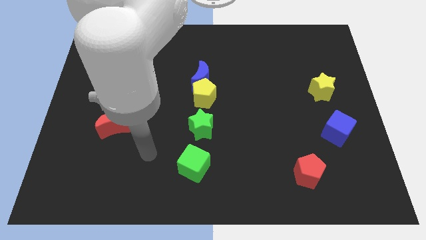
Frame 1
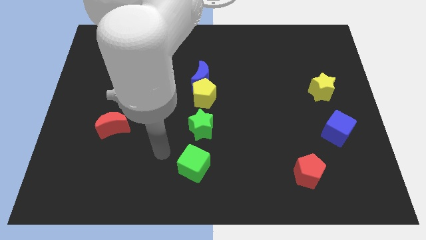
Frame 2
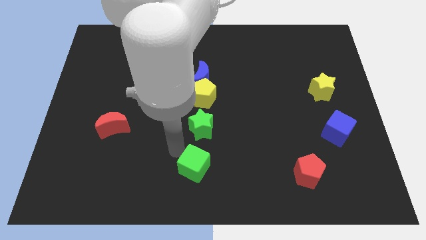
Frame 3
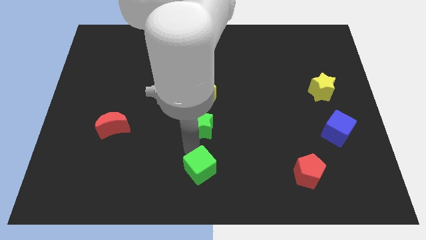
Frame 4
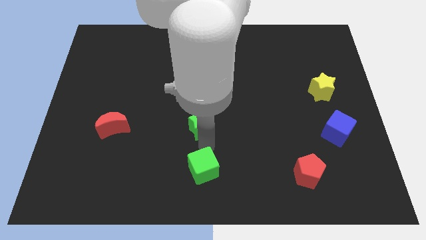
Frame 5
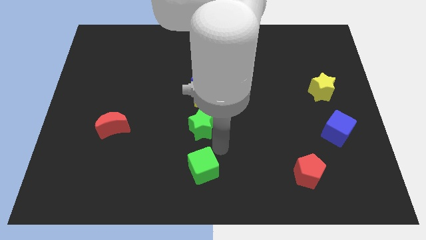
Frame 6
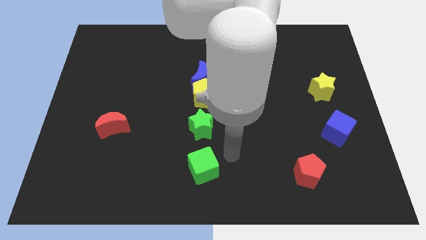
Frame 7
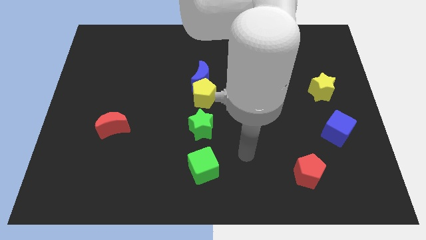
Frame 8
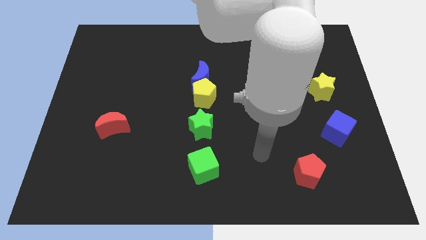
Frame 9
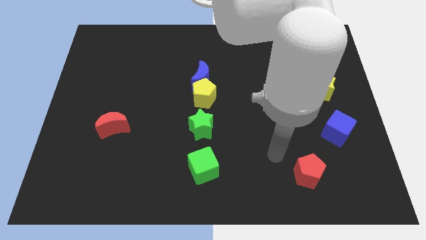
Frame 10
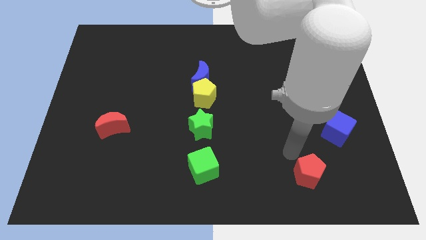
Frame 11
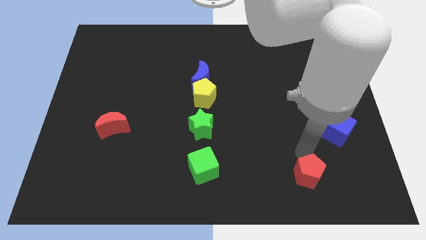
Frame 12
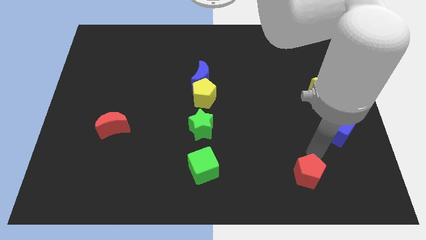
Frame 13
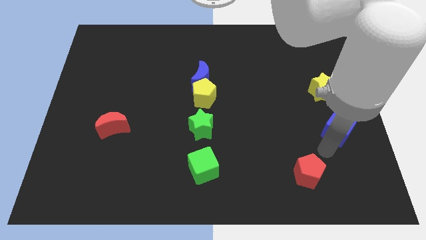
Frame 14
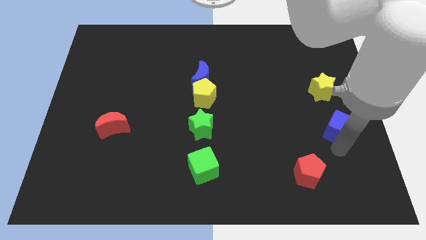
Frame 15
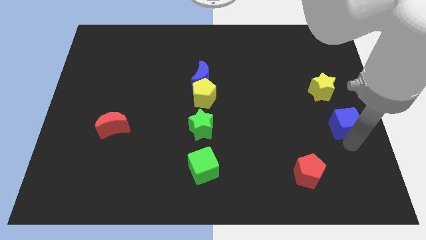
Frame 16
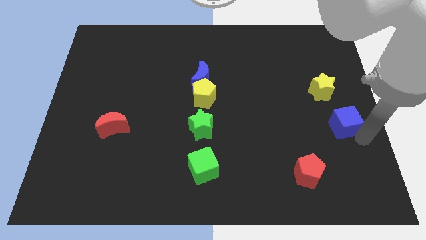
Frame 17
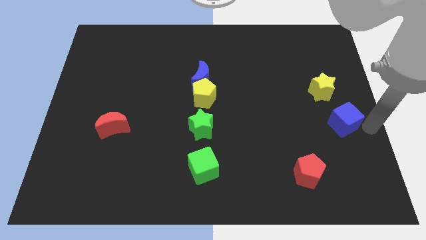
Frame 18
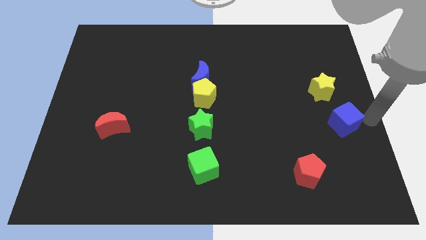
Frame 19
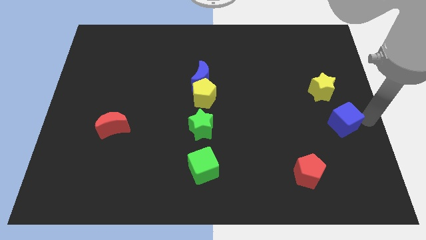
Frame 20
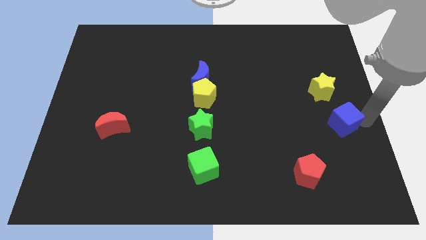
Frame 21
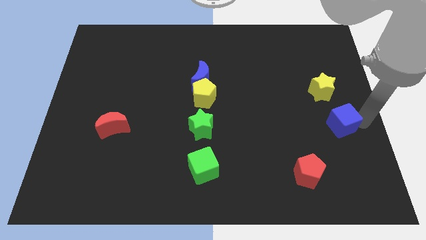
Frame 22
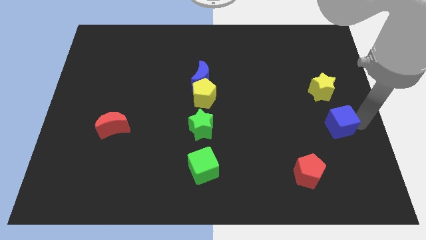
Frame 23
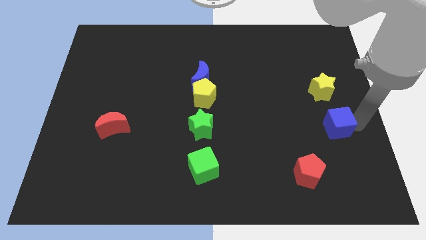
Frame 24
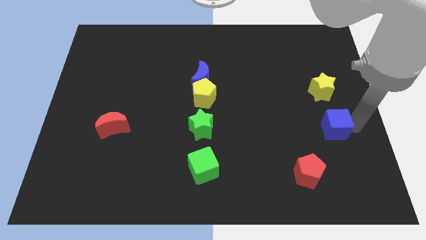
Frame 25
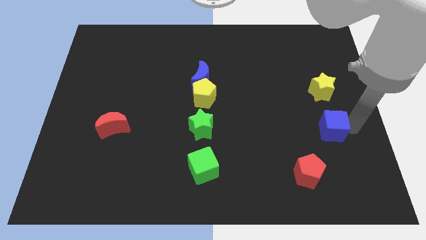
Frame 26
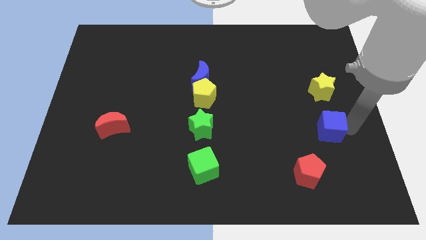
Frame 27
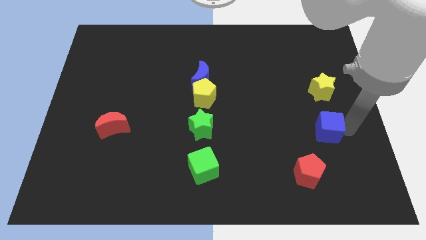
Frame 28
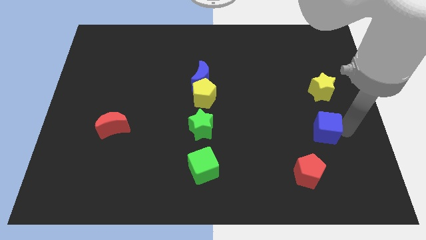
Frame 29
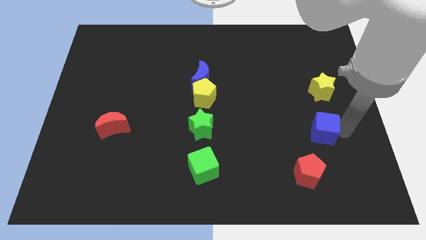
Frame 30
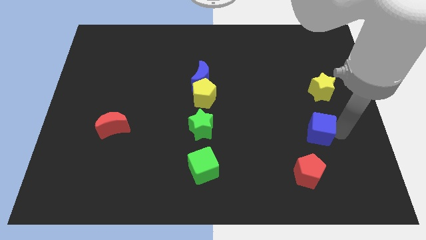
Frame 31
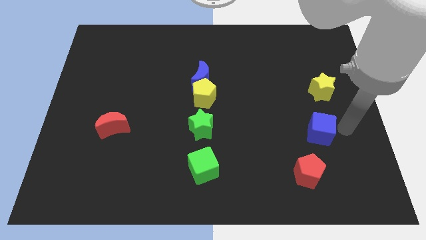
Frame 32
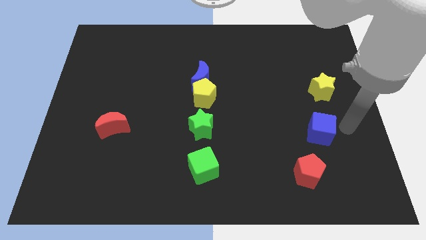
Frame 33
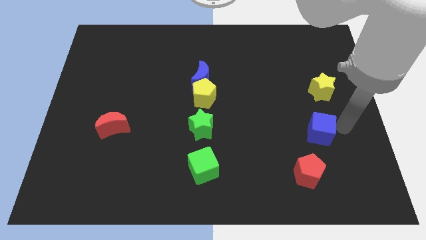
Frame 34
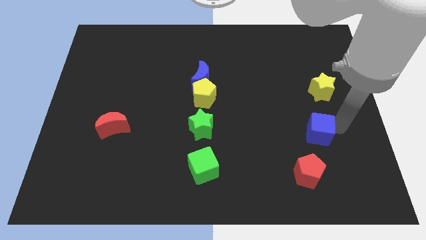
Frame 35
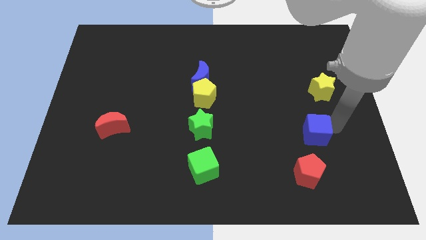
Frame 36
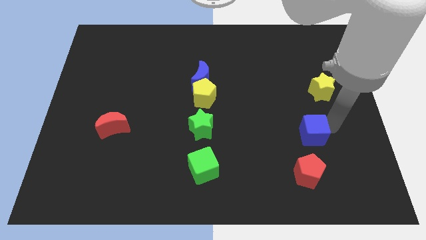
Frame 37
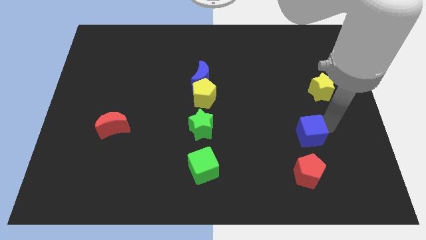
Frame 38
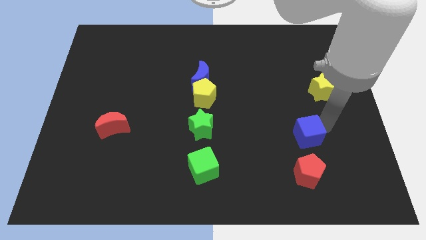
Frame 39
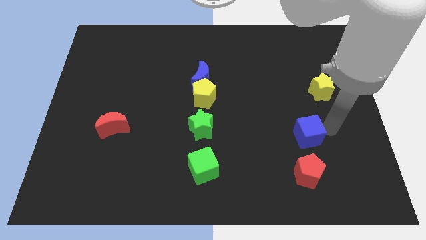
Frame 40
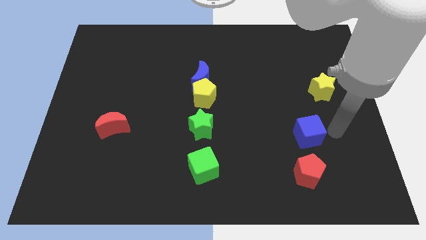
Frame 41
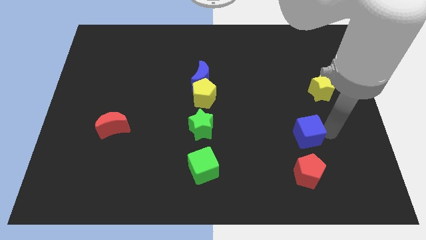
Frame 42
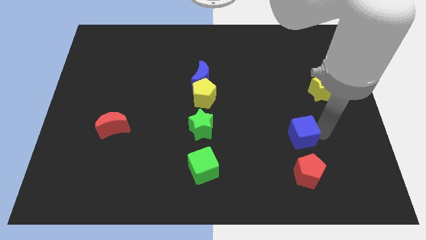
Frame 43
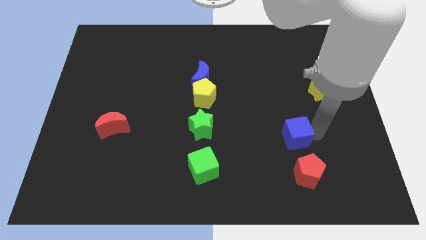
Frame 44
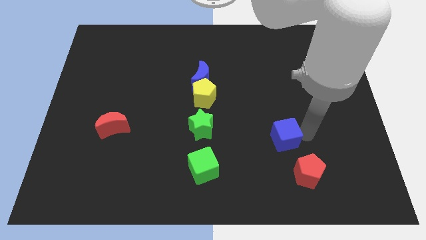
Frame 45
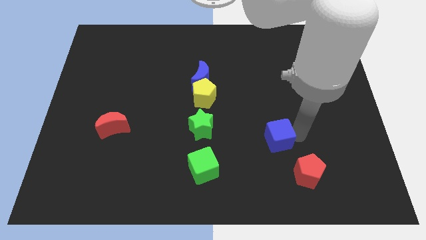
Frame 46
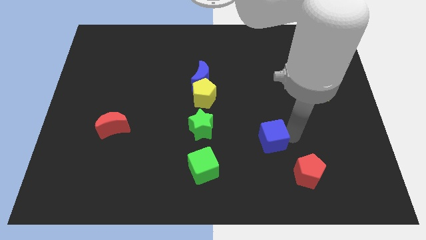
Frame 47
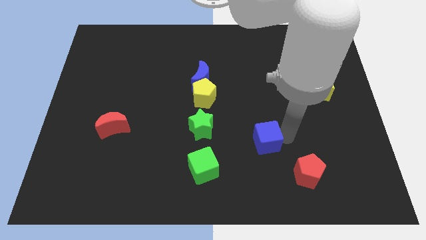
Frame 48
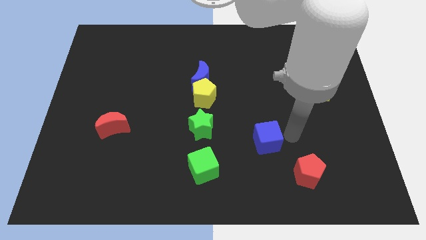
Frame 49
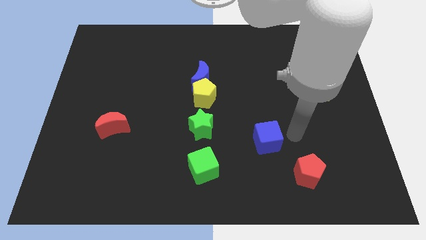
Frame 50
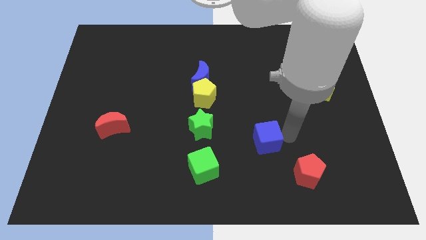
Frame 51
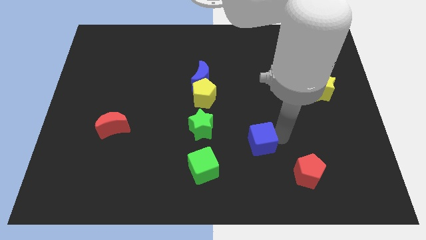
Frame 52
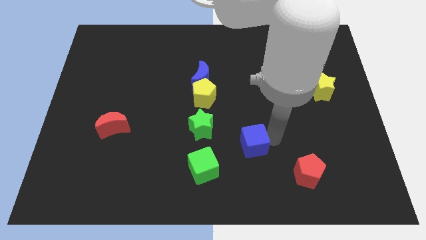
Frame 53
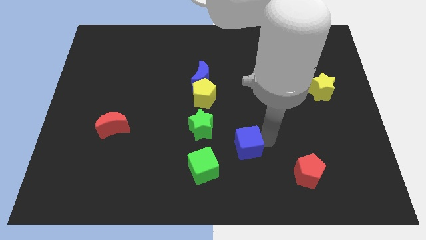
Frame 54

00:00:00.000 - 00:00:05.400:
put the blue cube diagonally up and to the right of the green cube

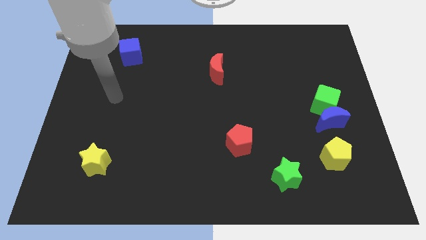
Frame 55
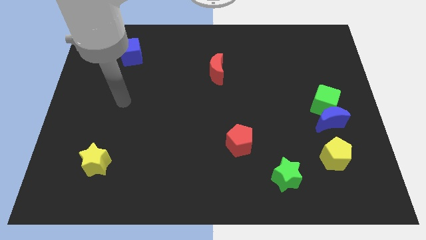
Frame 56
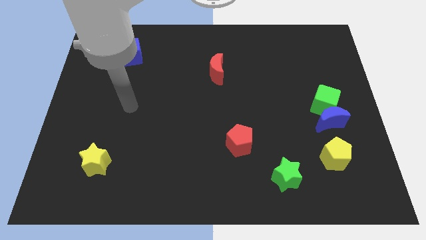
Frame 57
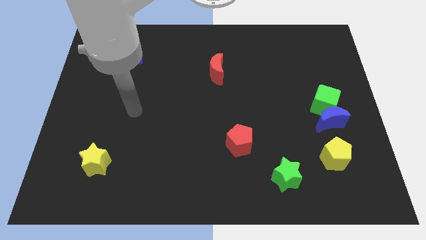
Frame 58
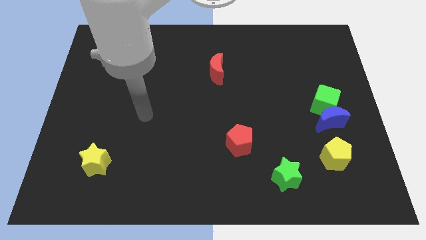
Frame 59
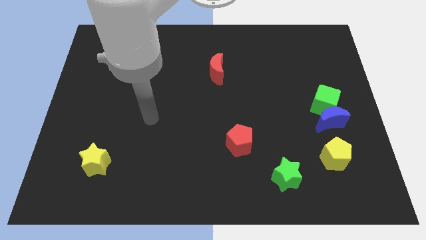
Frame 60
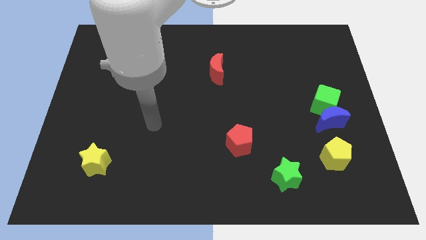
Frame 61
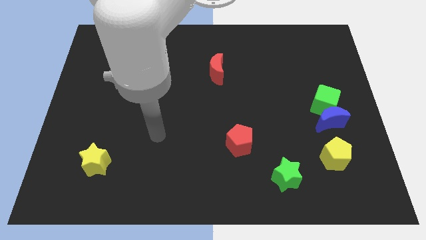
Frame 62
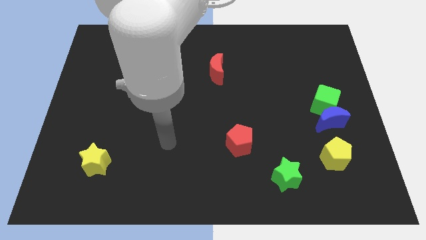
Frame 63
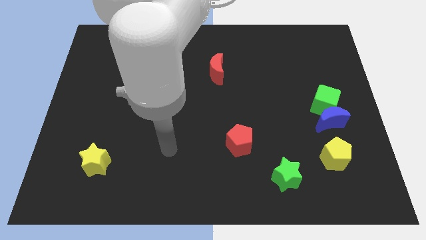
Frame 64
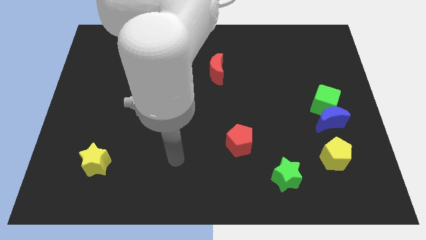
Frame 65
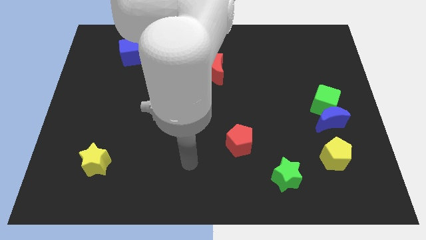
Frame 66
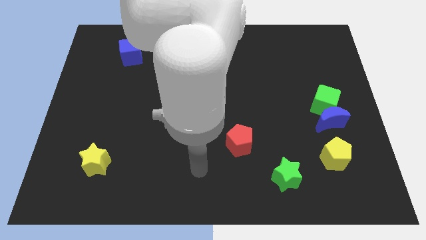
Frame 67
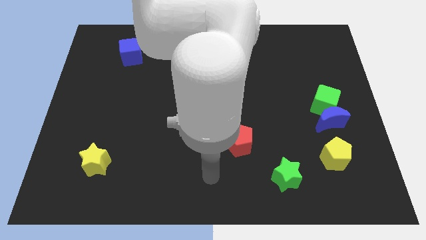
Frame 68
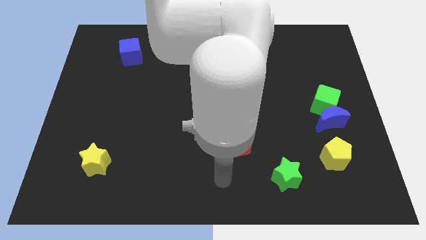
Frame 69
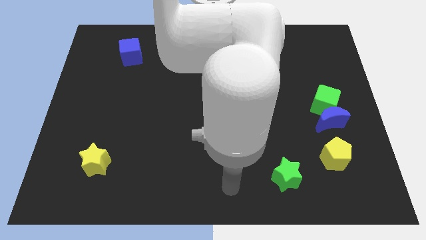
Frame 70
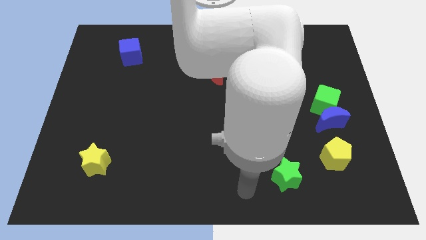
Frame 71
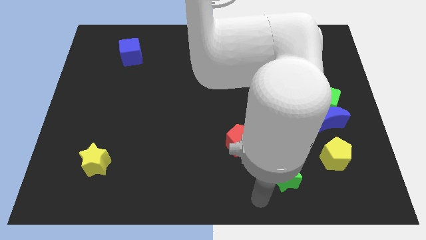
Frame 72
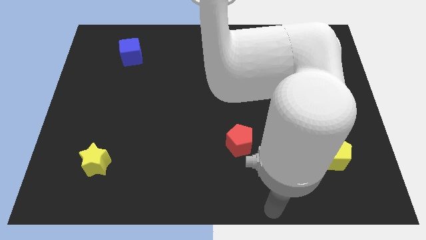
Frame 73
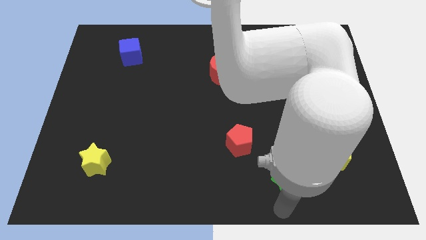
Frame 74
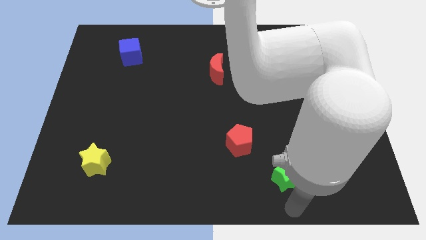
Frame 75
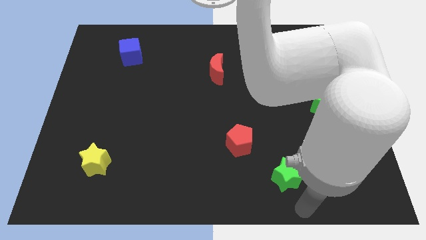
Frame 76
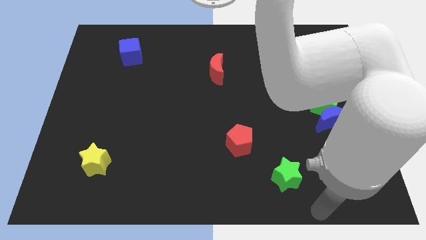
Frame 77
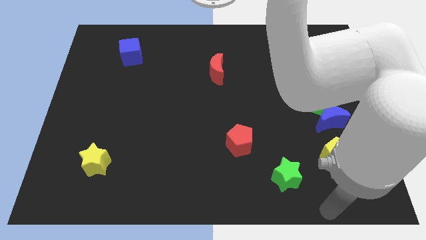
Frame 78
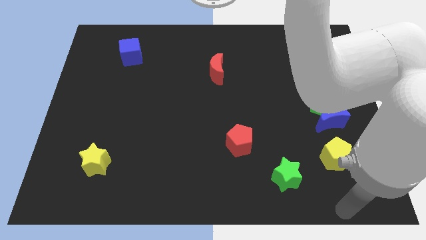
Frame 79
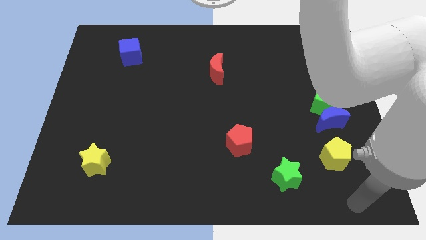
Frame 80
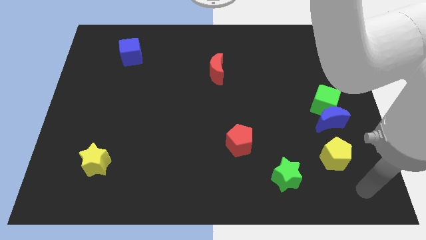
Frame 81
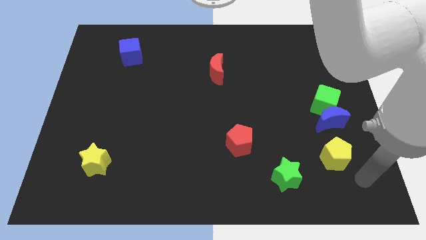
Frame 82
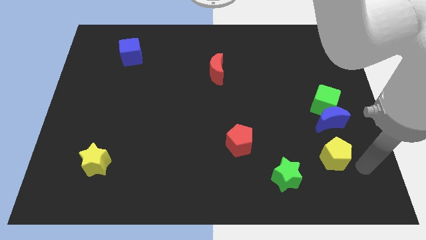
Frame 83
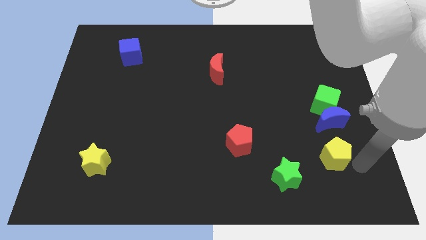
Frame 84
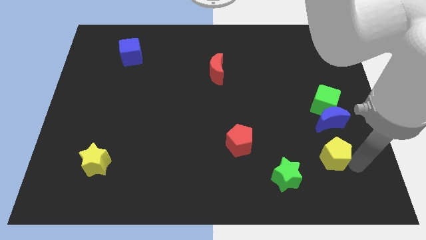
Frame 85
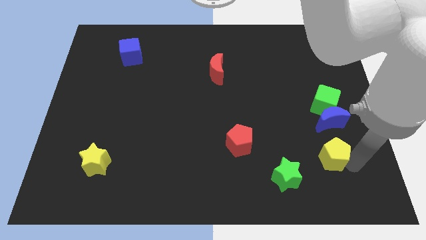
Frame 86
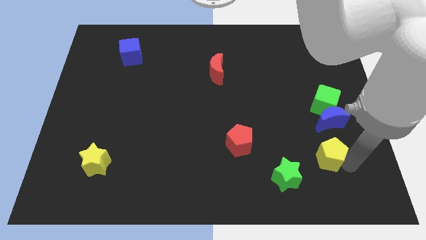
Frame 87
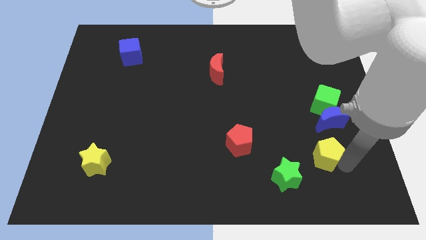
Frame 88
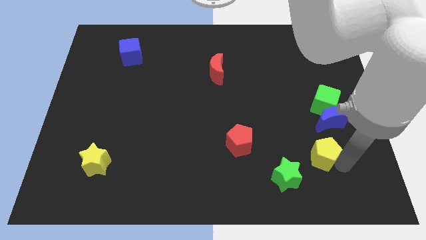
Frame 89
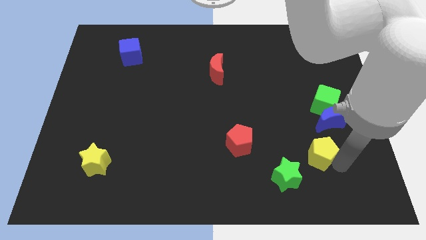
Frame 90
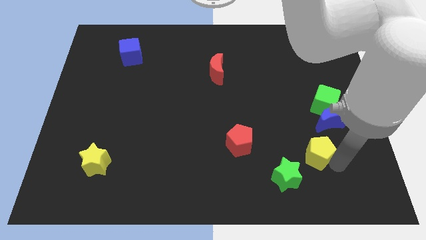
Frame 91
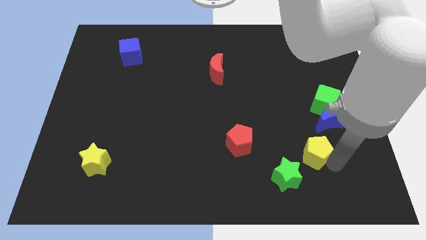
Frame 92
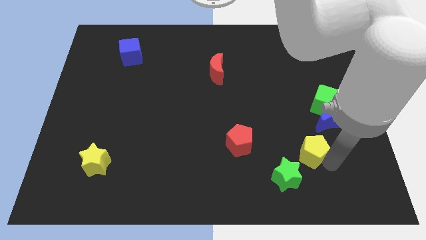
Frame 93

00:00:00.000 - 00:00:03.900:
slide the yellow pentagon right of the red pentagon
